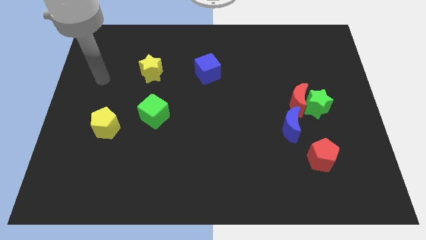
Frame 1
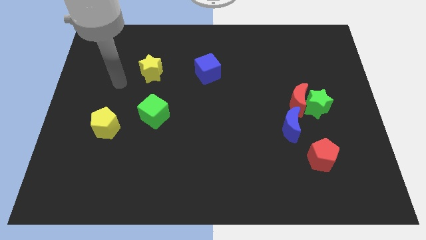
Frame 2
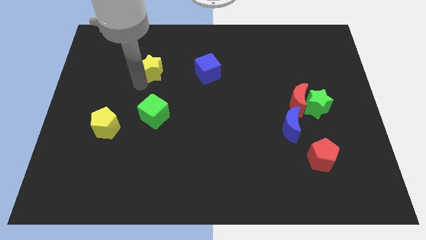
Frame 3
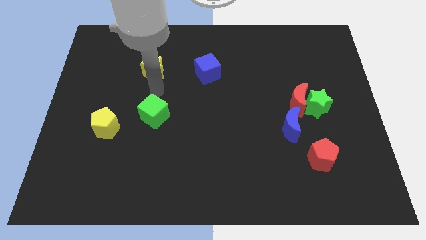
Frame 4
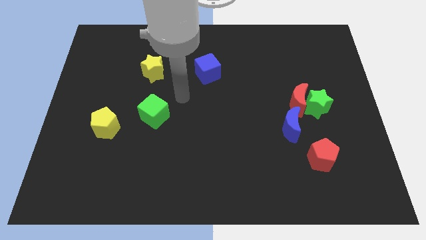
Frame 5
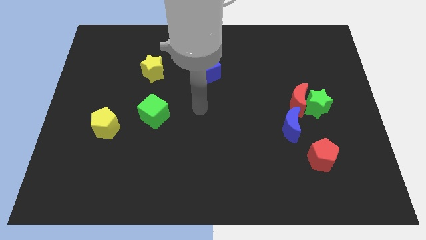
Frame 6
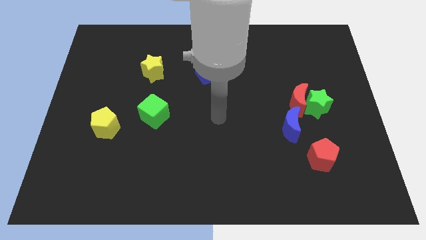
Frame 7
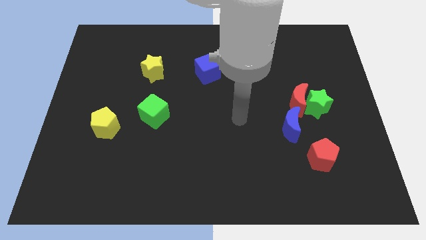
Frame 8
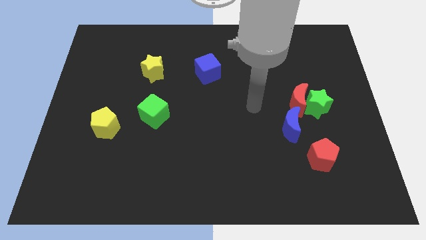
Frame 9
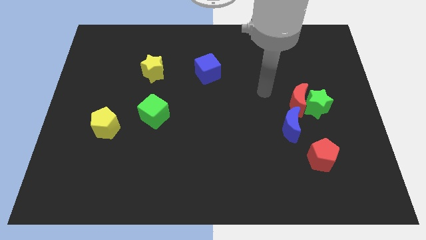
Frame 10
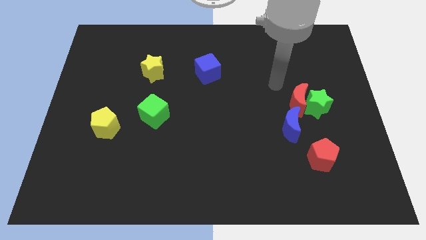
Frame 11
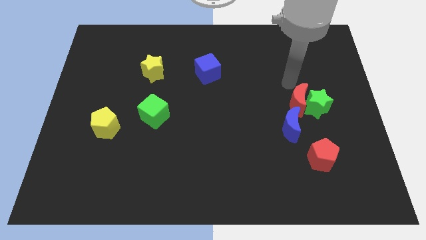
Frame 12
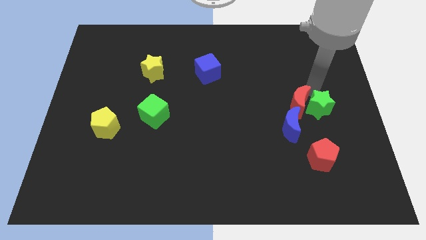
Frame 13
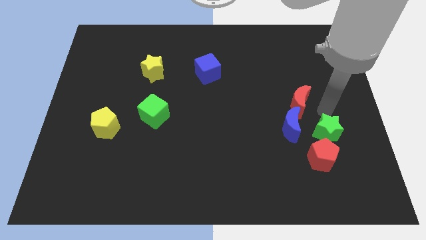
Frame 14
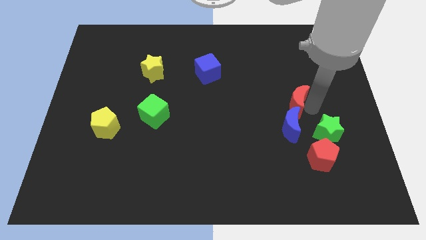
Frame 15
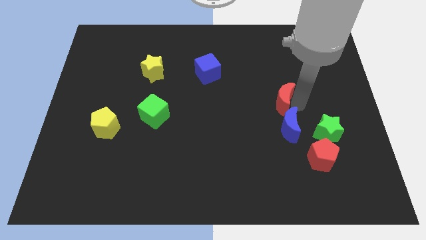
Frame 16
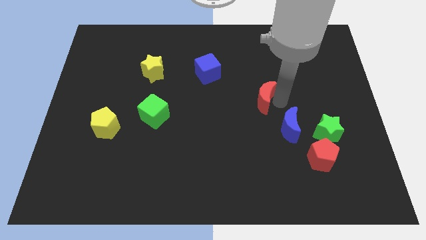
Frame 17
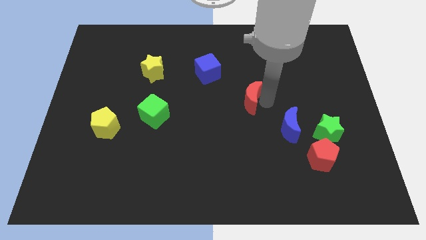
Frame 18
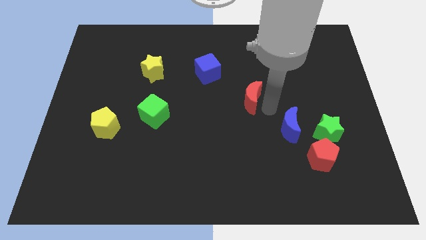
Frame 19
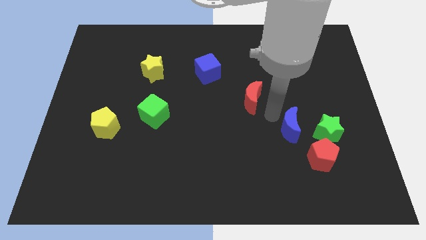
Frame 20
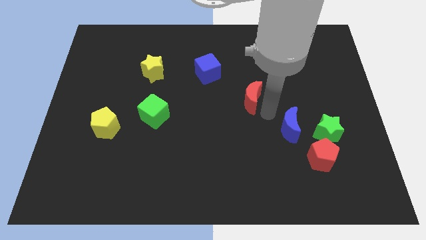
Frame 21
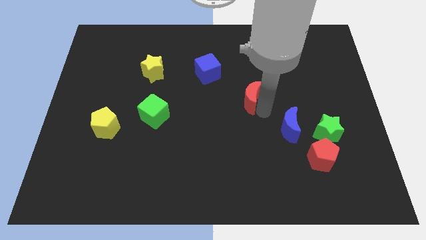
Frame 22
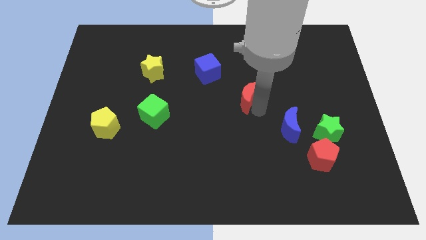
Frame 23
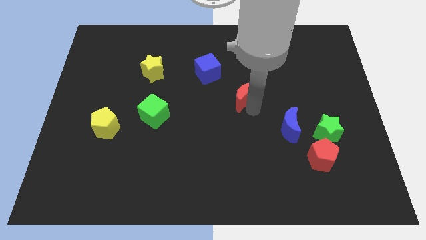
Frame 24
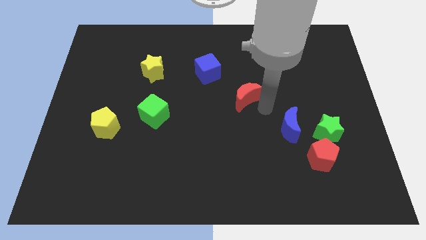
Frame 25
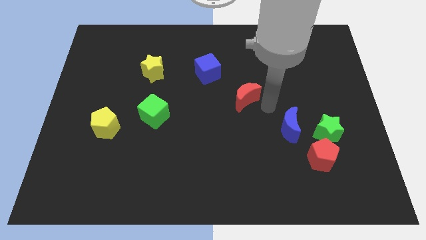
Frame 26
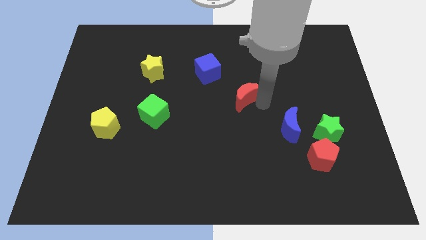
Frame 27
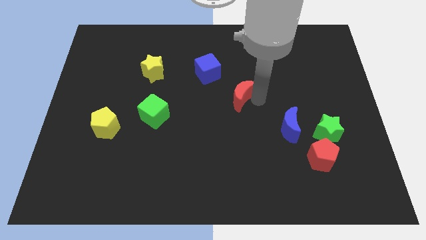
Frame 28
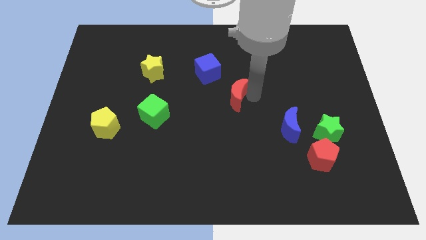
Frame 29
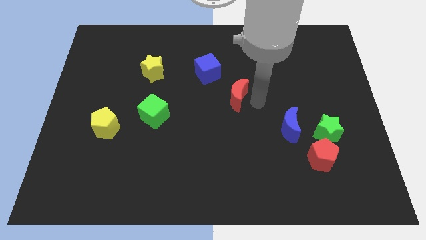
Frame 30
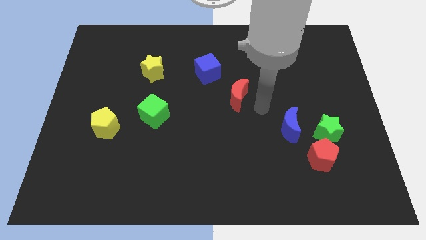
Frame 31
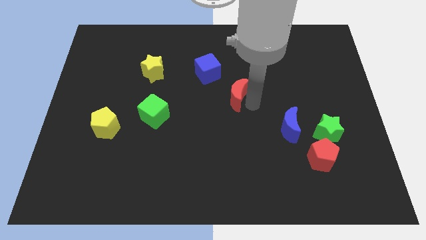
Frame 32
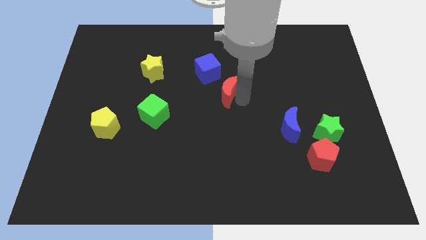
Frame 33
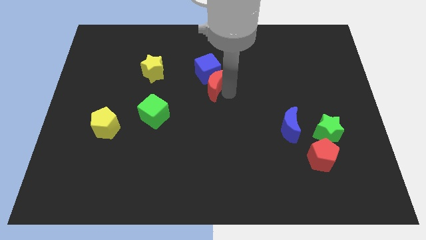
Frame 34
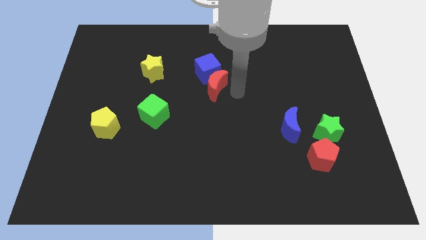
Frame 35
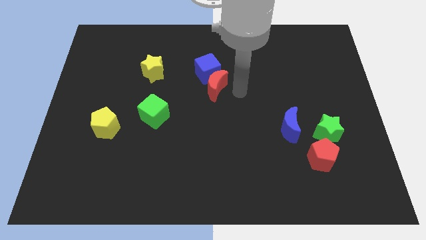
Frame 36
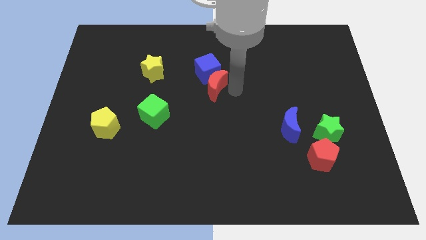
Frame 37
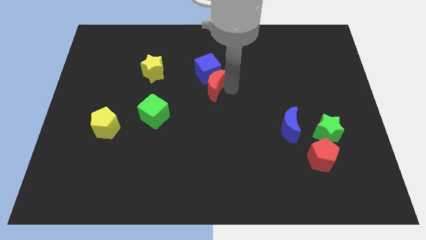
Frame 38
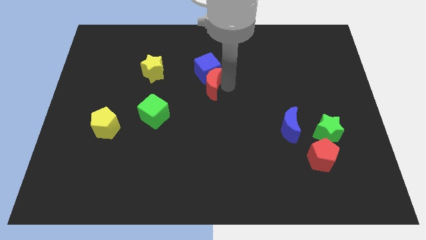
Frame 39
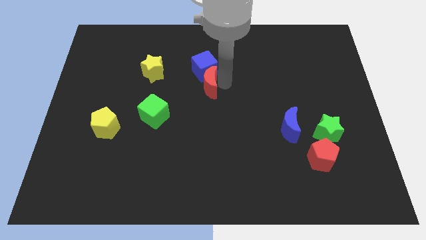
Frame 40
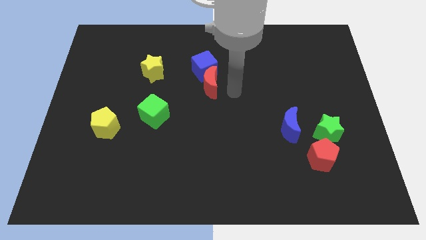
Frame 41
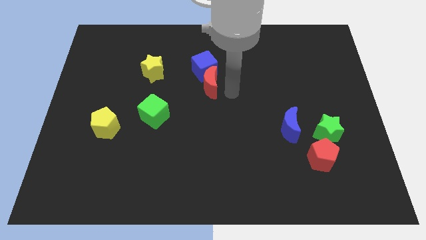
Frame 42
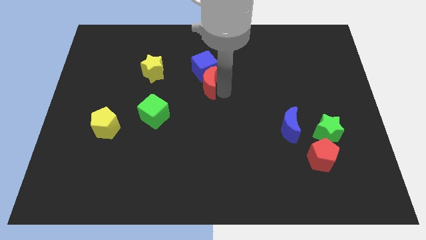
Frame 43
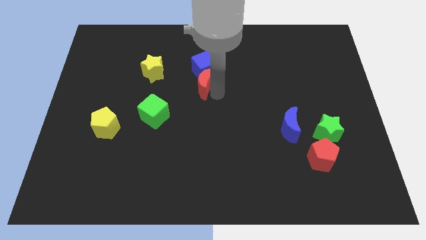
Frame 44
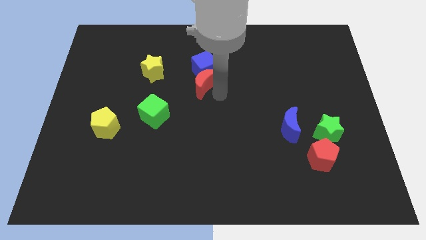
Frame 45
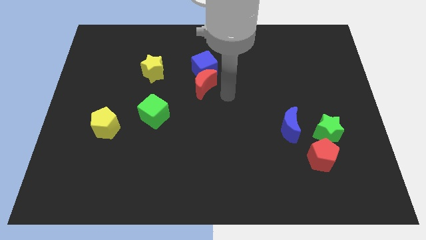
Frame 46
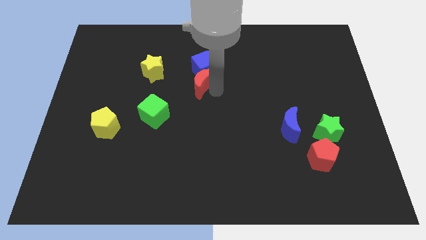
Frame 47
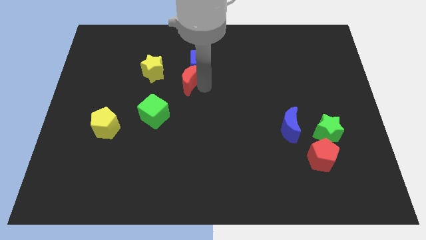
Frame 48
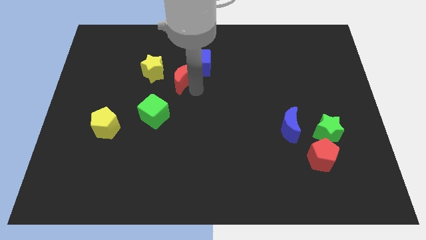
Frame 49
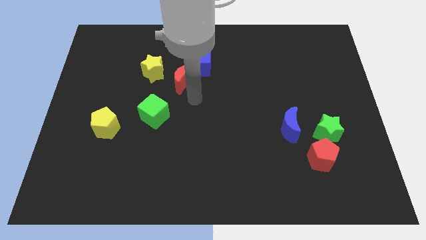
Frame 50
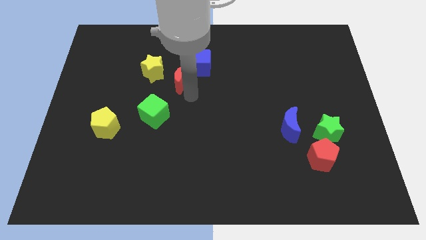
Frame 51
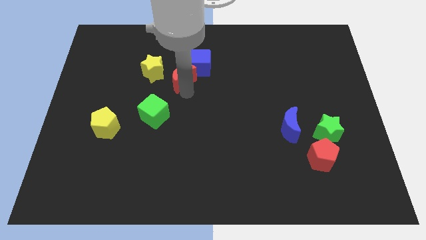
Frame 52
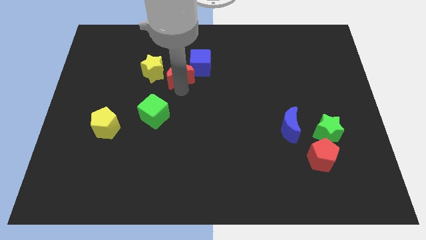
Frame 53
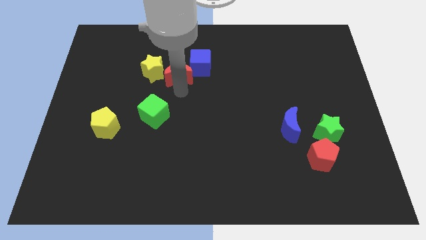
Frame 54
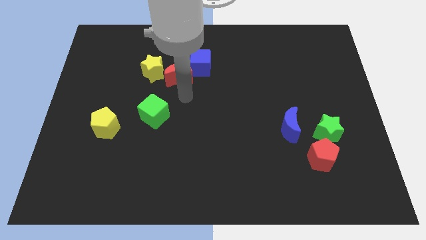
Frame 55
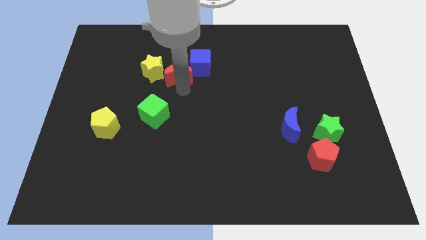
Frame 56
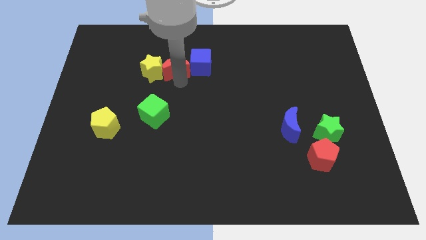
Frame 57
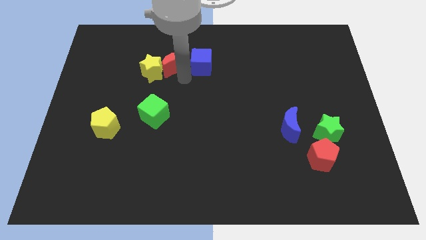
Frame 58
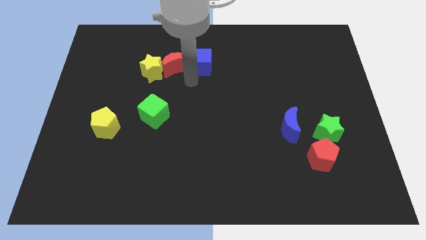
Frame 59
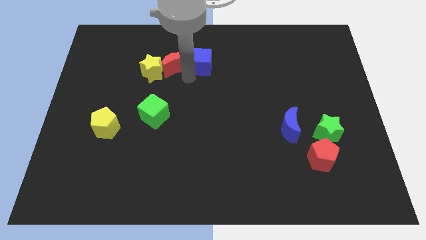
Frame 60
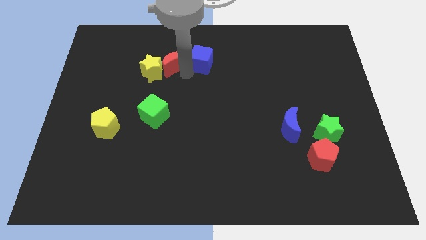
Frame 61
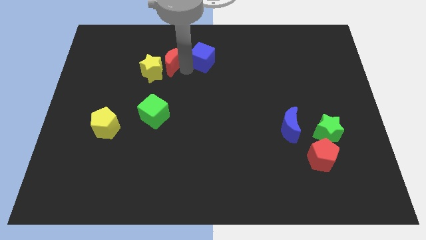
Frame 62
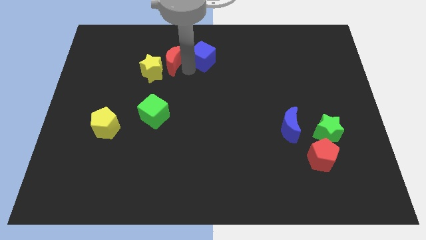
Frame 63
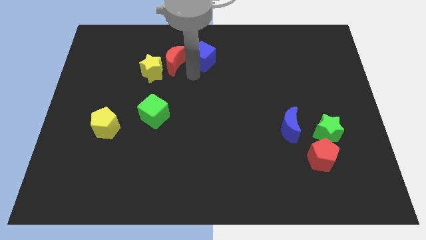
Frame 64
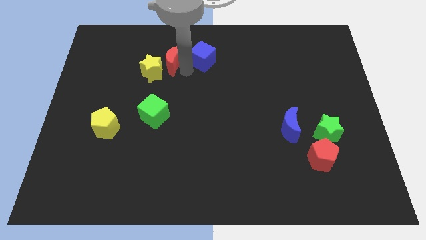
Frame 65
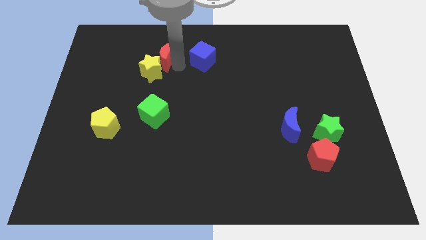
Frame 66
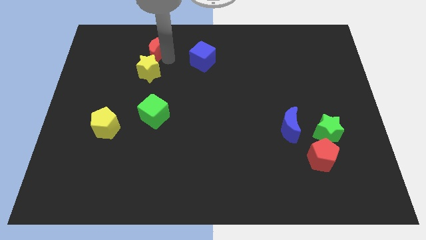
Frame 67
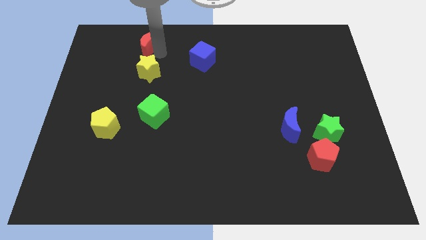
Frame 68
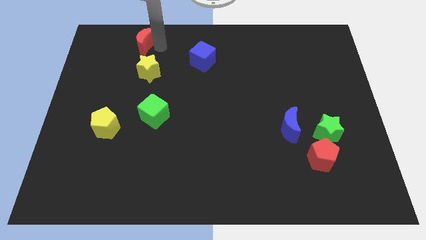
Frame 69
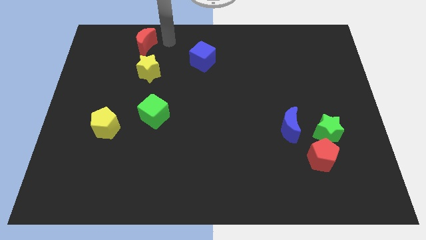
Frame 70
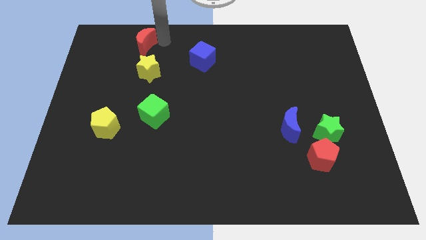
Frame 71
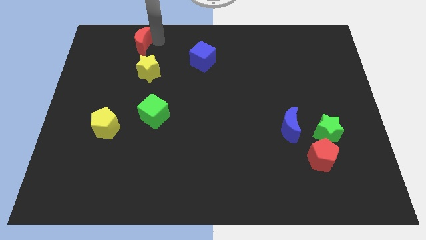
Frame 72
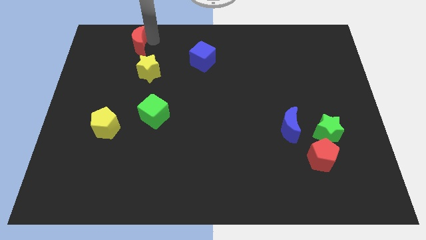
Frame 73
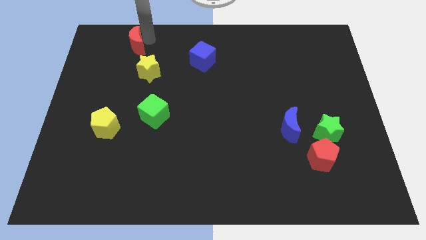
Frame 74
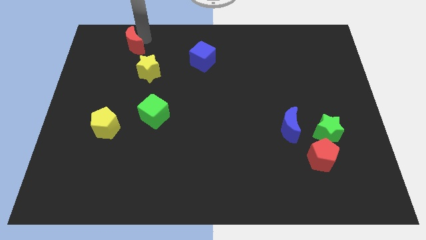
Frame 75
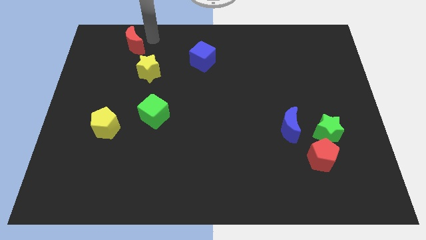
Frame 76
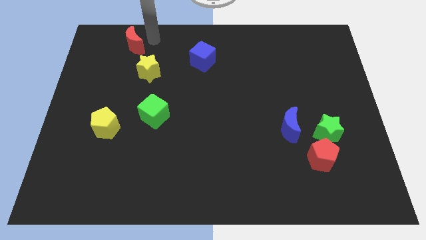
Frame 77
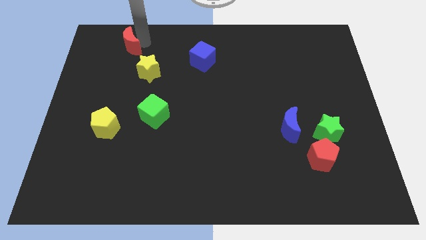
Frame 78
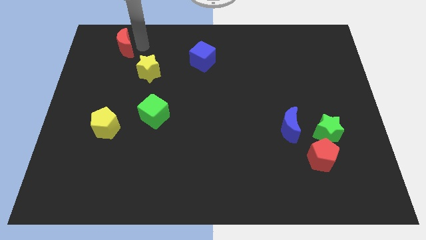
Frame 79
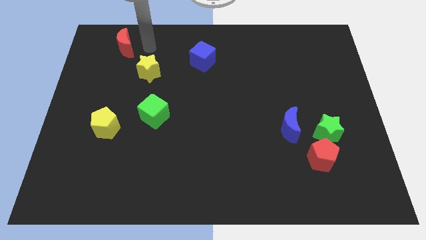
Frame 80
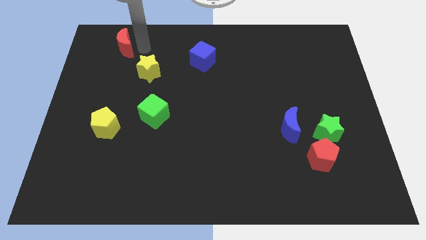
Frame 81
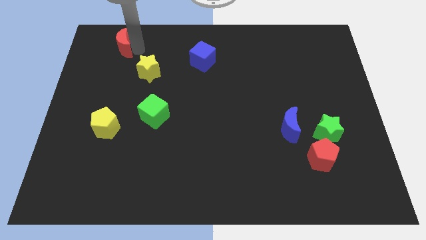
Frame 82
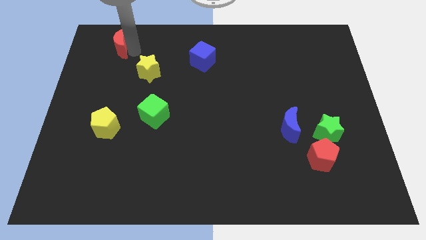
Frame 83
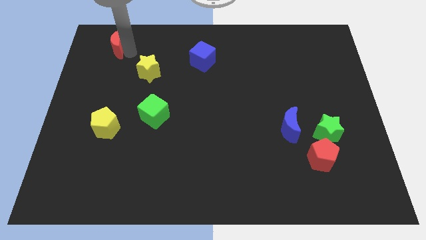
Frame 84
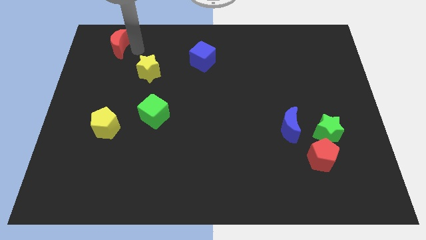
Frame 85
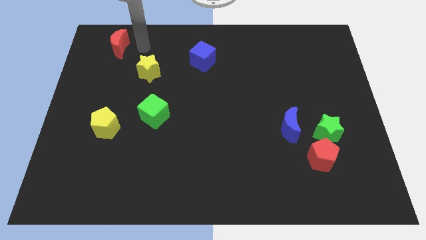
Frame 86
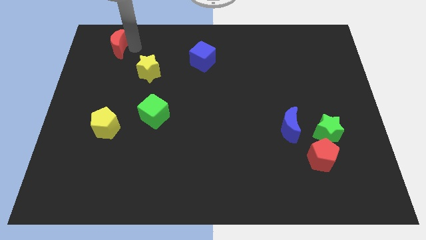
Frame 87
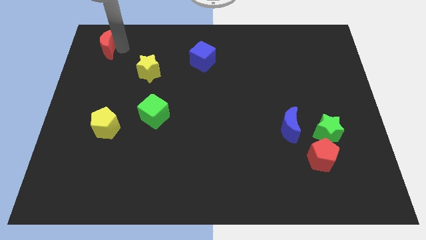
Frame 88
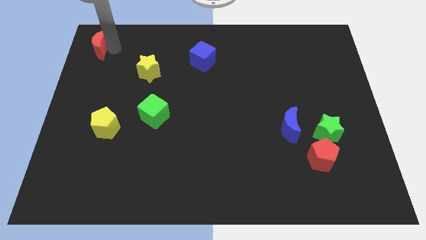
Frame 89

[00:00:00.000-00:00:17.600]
put the red moon to the top left
